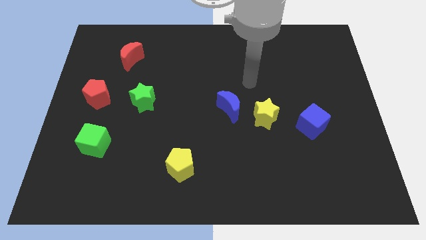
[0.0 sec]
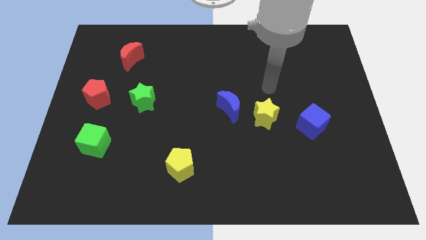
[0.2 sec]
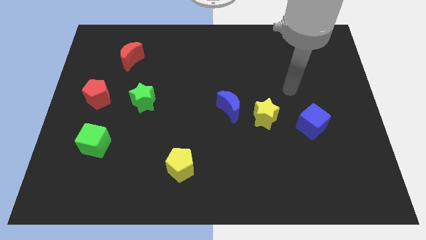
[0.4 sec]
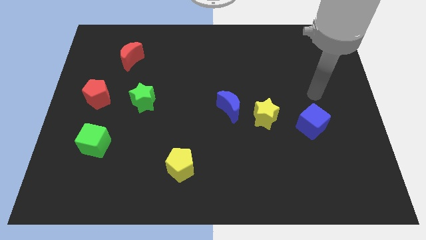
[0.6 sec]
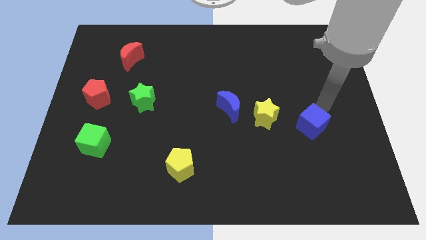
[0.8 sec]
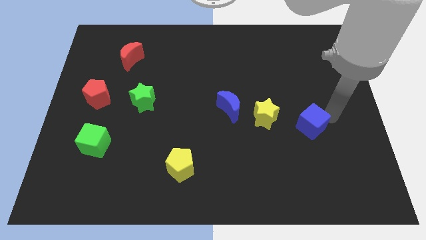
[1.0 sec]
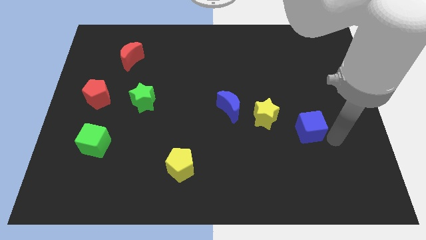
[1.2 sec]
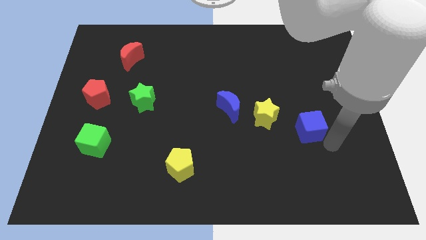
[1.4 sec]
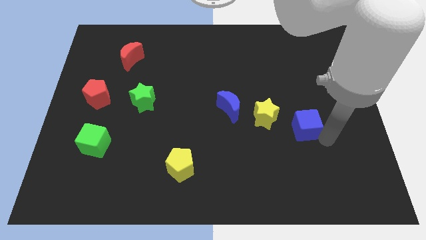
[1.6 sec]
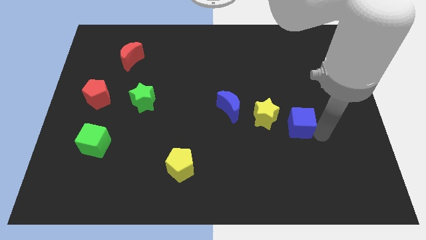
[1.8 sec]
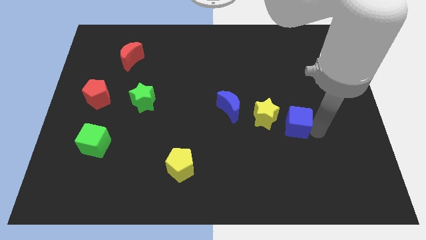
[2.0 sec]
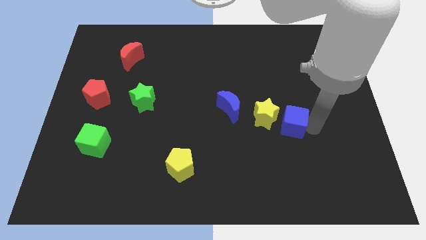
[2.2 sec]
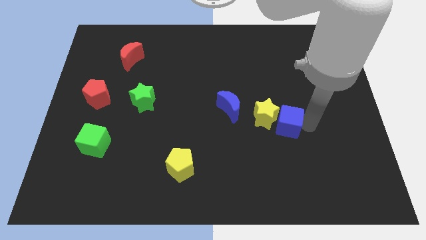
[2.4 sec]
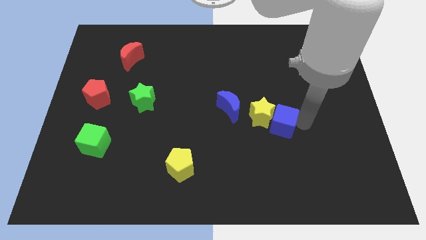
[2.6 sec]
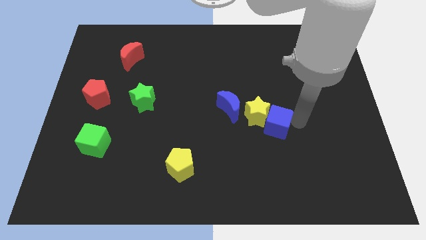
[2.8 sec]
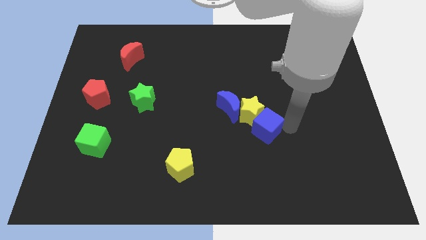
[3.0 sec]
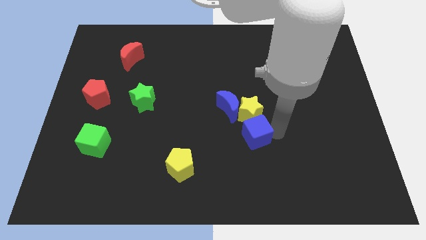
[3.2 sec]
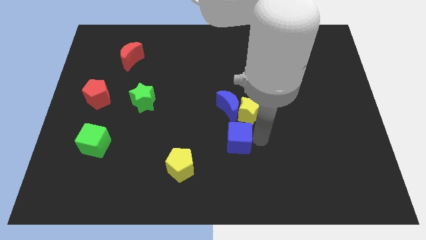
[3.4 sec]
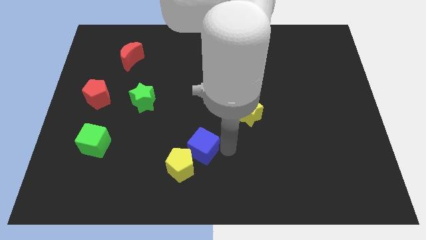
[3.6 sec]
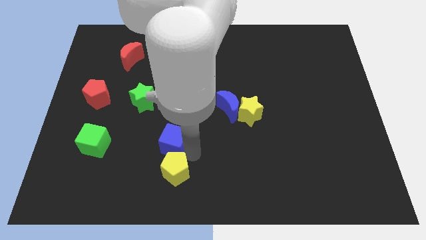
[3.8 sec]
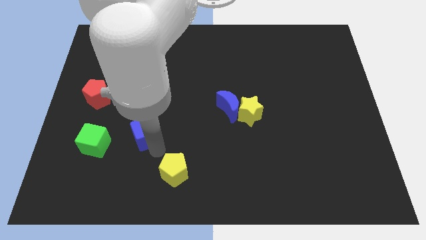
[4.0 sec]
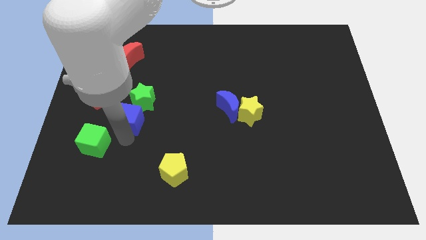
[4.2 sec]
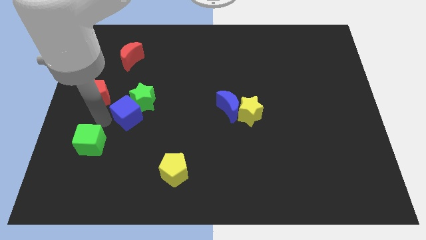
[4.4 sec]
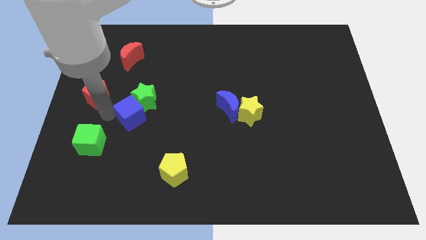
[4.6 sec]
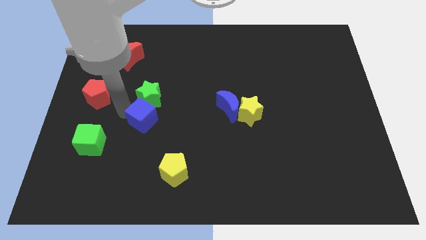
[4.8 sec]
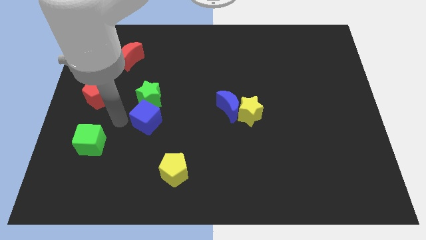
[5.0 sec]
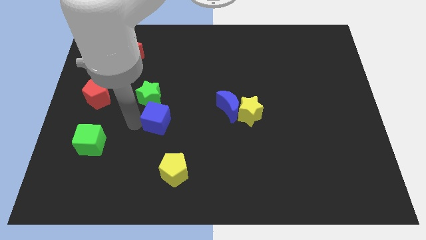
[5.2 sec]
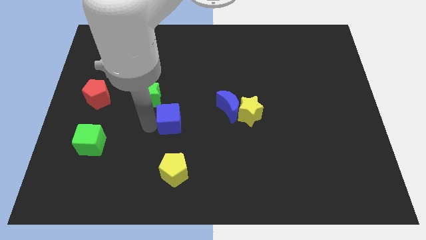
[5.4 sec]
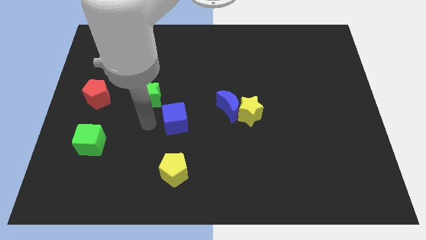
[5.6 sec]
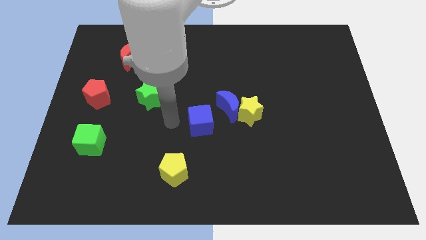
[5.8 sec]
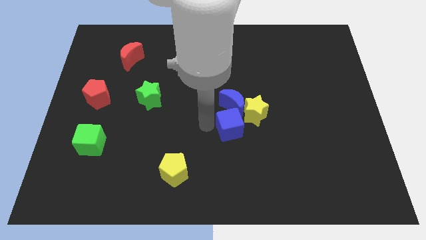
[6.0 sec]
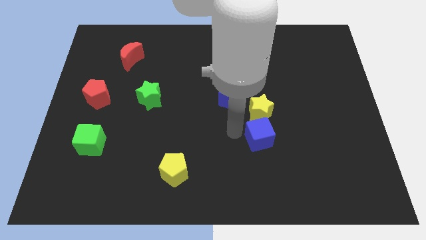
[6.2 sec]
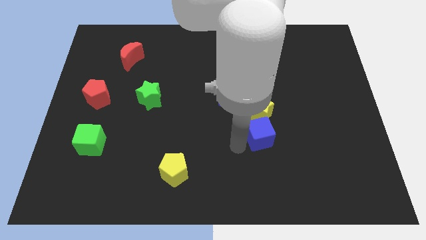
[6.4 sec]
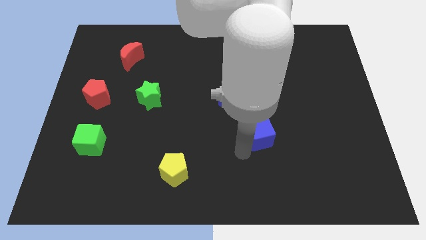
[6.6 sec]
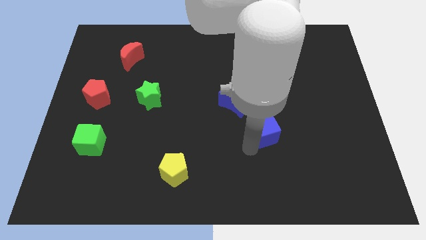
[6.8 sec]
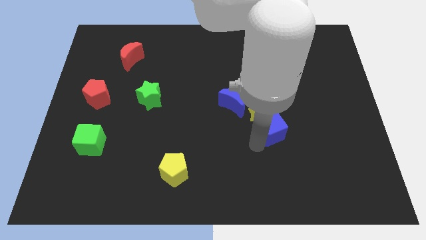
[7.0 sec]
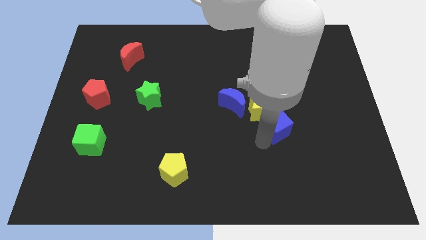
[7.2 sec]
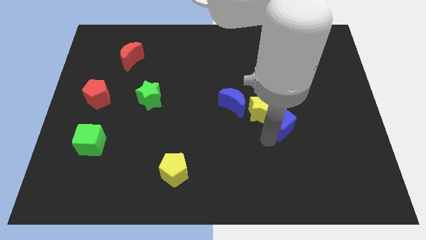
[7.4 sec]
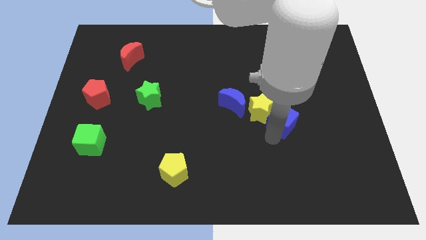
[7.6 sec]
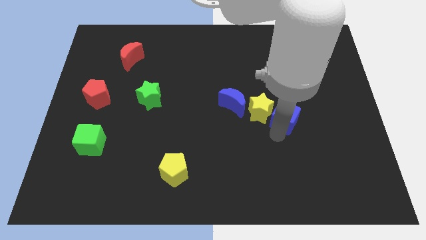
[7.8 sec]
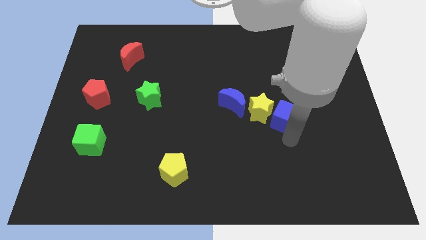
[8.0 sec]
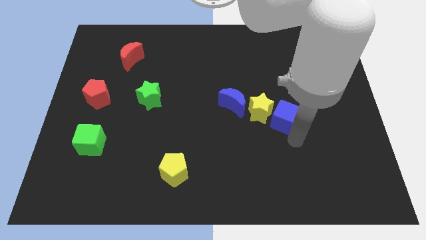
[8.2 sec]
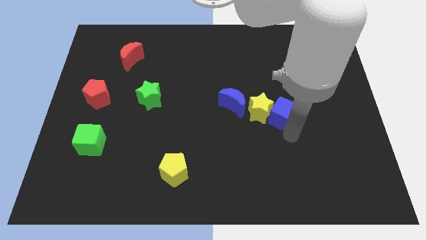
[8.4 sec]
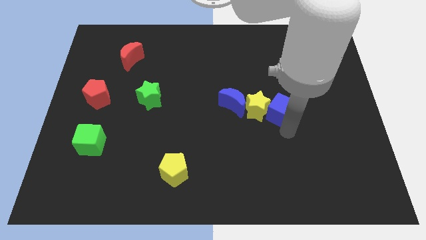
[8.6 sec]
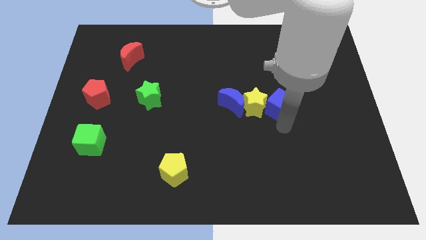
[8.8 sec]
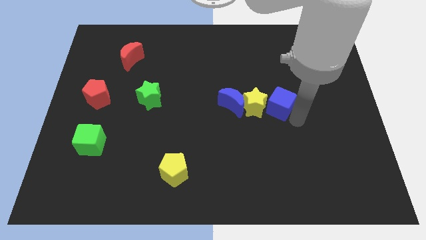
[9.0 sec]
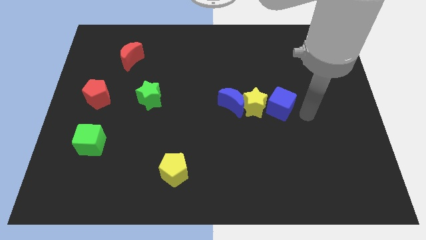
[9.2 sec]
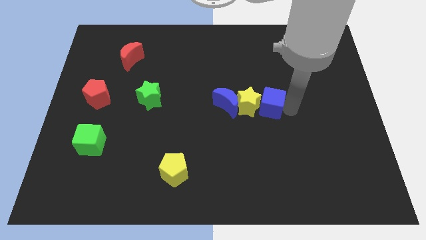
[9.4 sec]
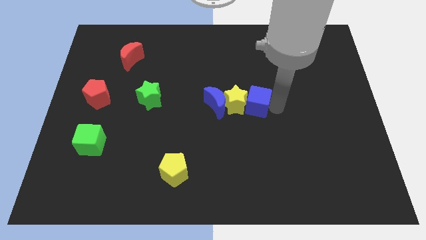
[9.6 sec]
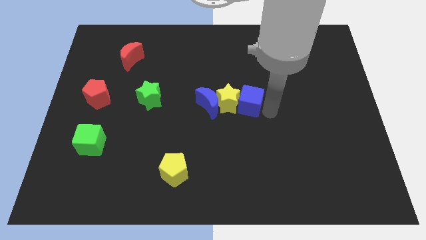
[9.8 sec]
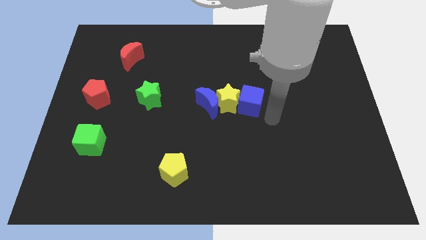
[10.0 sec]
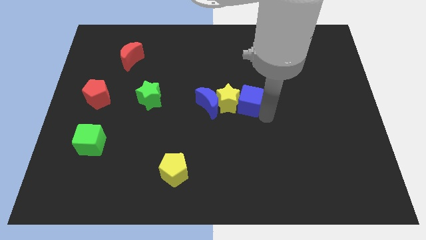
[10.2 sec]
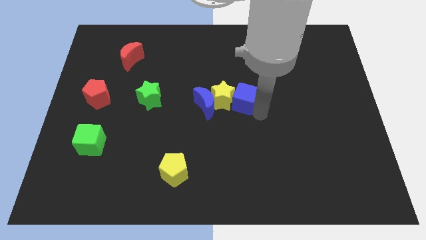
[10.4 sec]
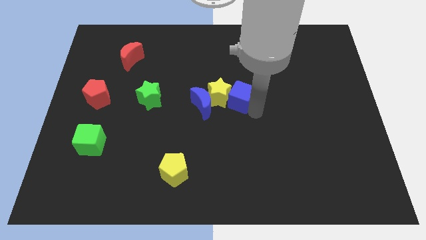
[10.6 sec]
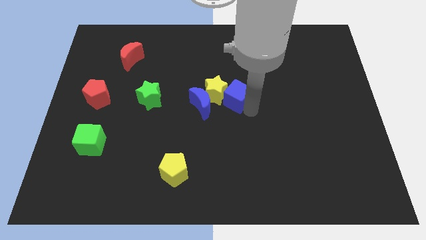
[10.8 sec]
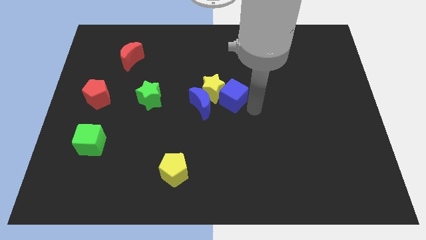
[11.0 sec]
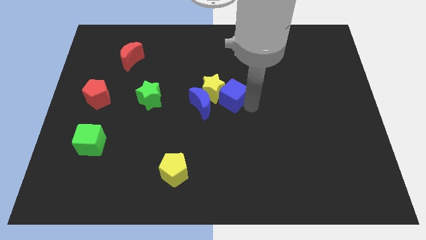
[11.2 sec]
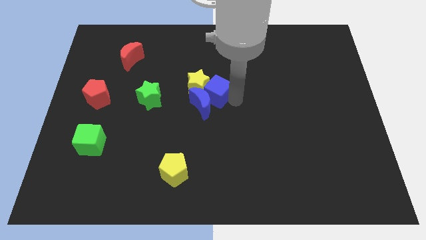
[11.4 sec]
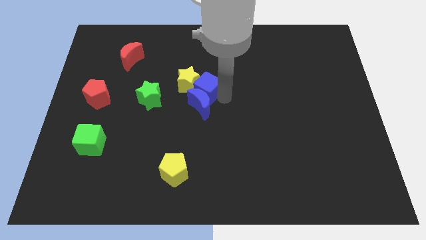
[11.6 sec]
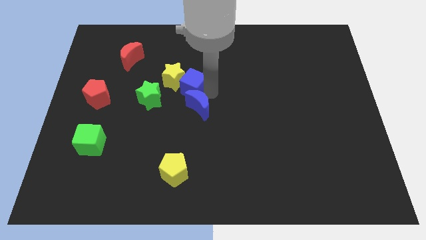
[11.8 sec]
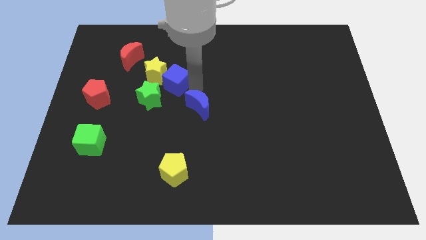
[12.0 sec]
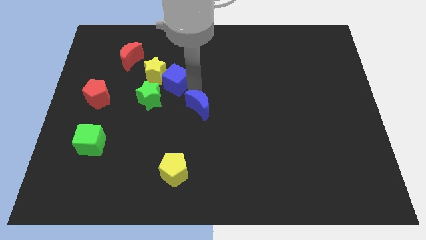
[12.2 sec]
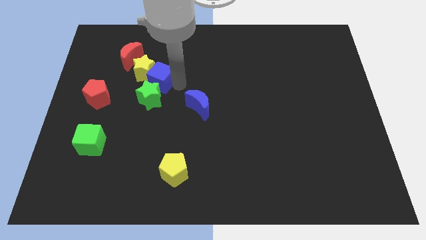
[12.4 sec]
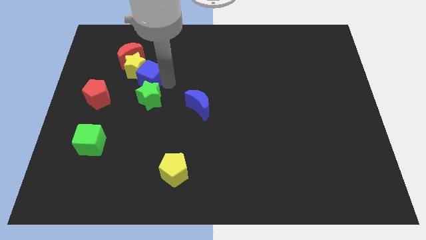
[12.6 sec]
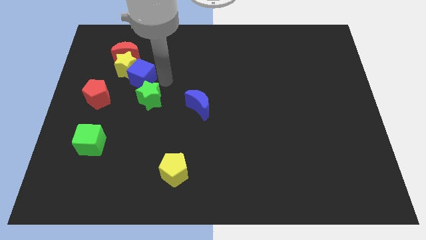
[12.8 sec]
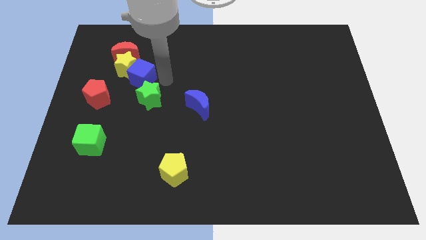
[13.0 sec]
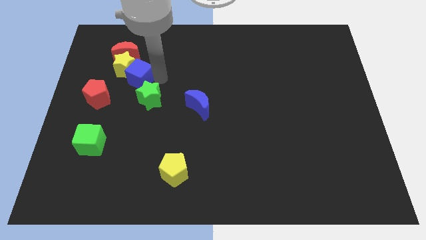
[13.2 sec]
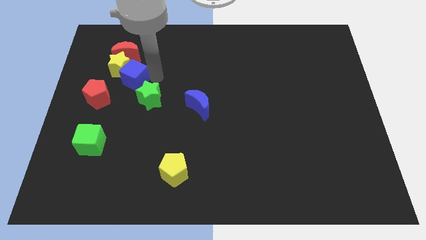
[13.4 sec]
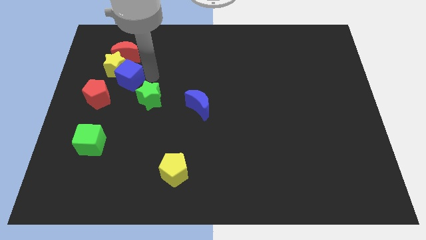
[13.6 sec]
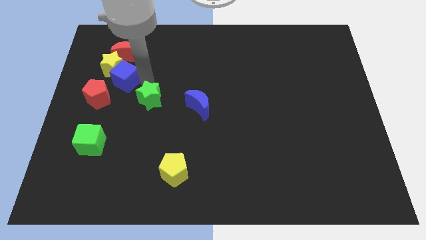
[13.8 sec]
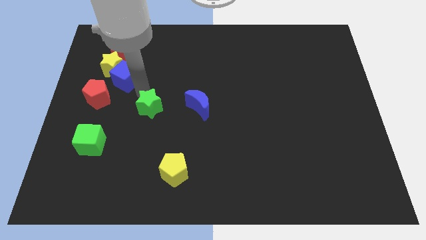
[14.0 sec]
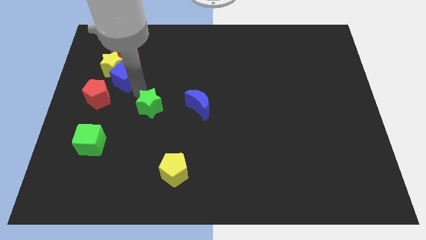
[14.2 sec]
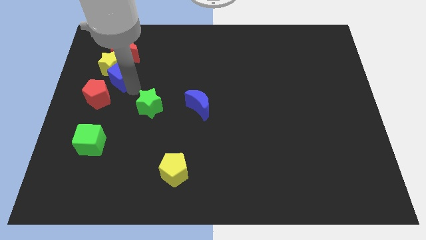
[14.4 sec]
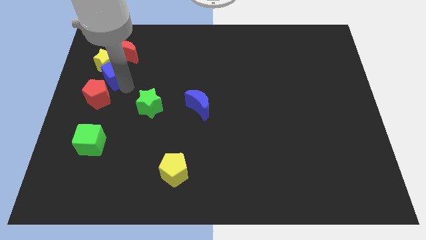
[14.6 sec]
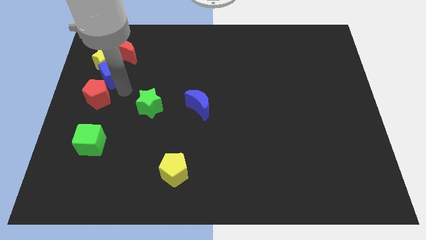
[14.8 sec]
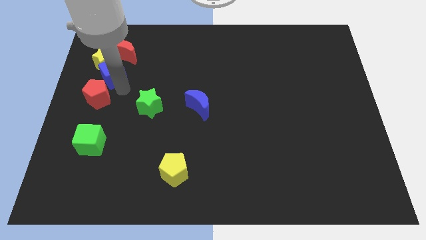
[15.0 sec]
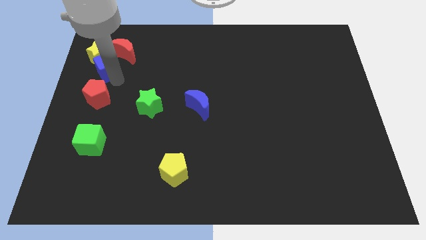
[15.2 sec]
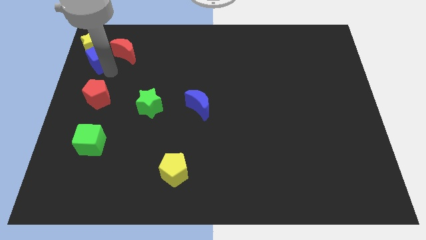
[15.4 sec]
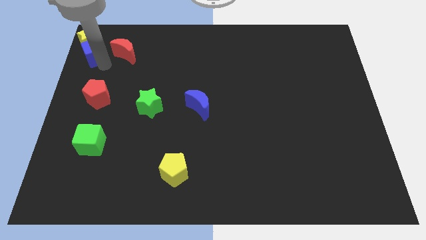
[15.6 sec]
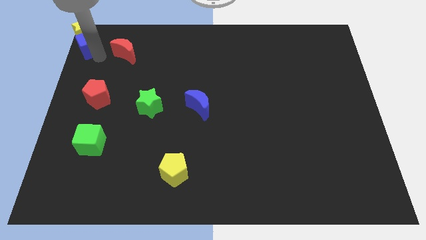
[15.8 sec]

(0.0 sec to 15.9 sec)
put the blue cube to the top left corner
